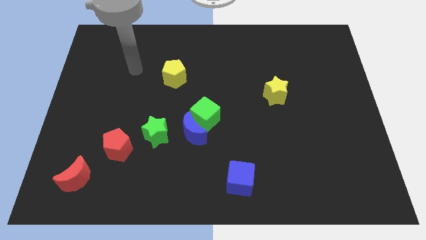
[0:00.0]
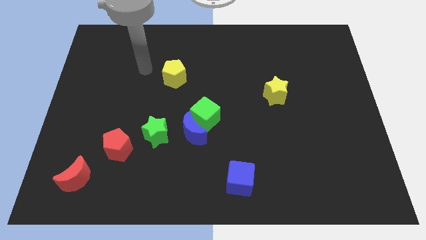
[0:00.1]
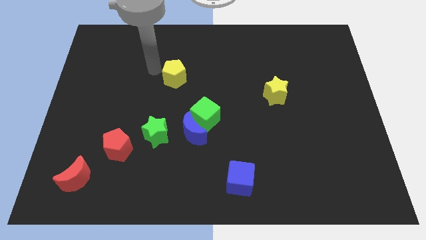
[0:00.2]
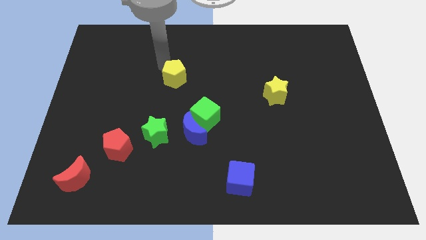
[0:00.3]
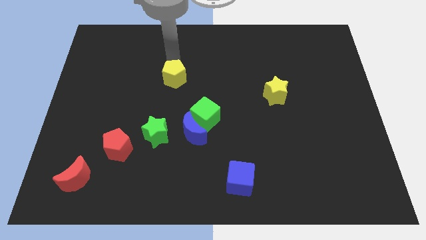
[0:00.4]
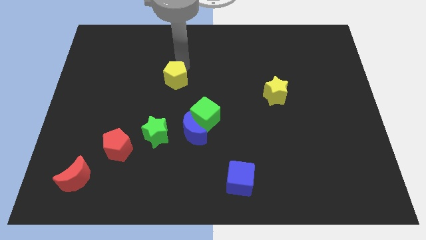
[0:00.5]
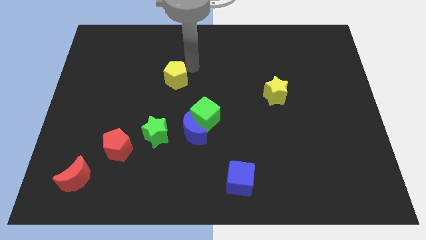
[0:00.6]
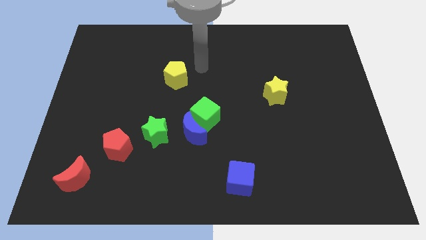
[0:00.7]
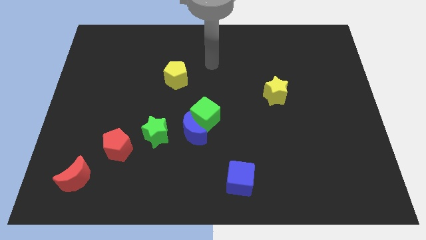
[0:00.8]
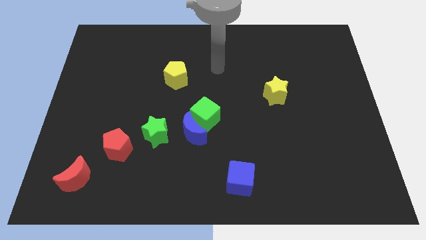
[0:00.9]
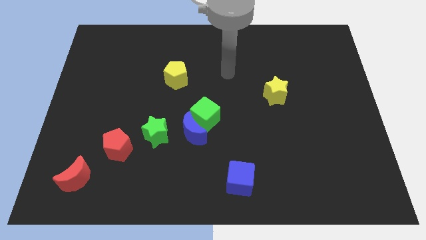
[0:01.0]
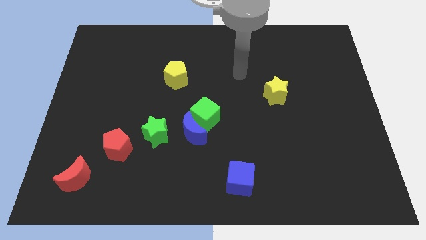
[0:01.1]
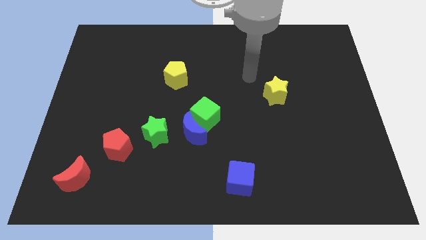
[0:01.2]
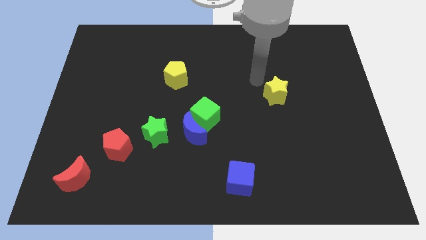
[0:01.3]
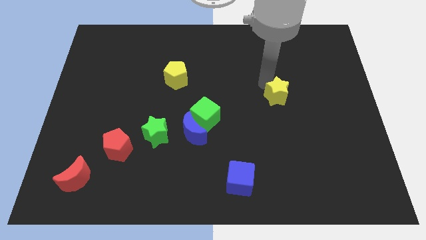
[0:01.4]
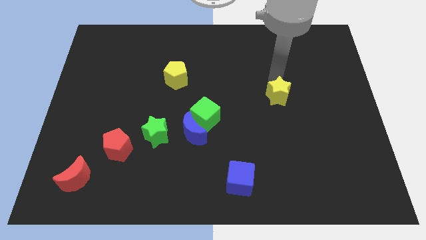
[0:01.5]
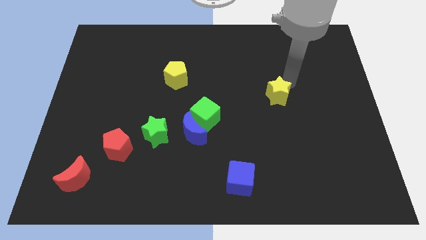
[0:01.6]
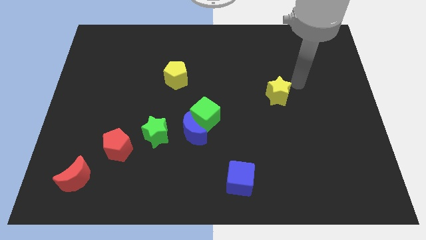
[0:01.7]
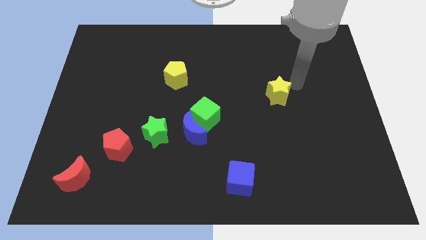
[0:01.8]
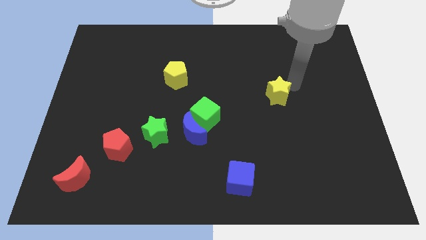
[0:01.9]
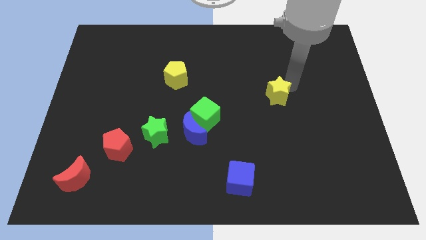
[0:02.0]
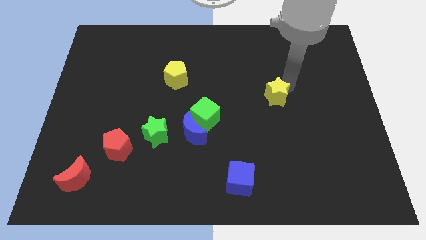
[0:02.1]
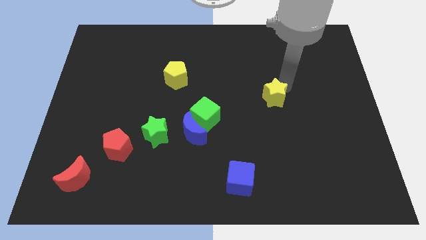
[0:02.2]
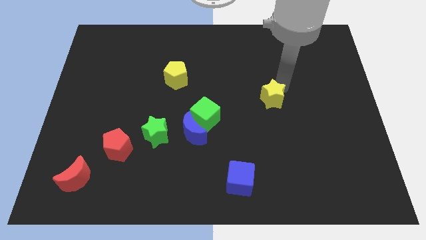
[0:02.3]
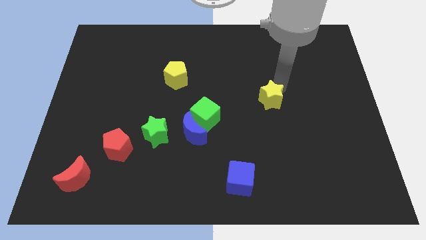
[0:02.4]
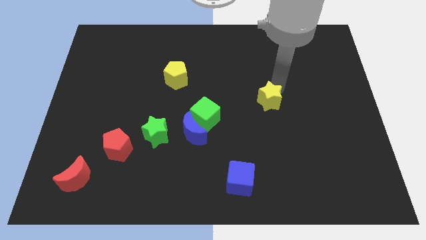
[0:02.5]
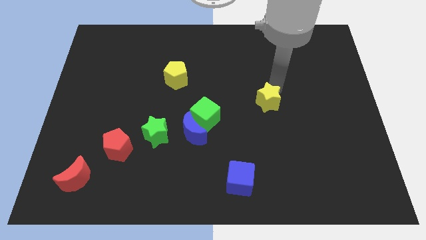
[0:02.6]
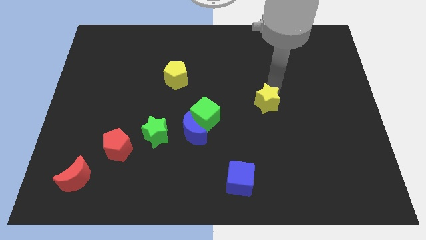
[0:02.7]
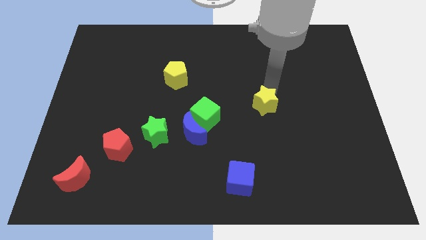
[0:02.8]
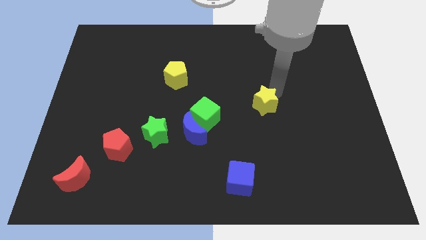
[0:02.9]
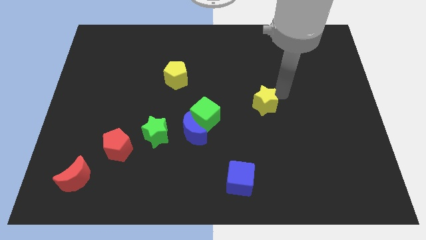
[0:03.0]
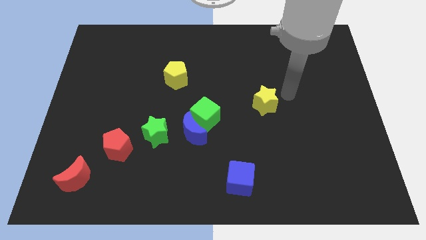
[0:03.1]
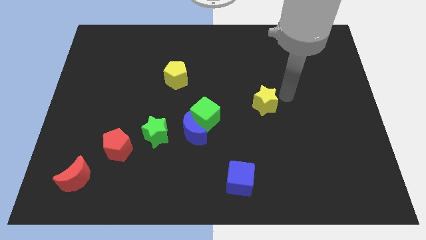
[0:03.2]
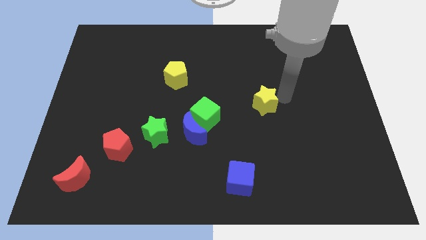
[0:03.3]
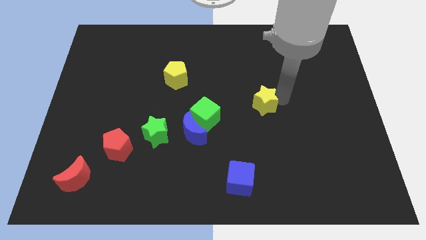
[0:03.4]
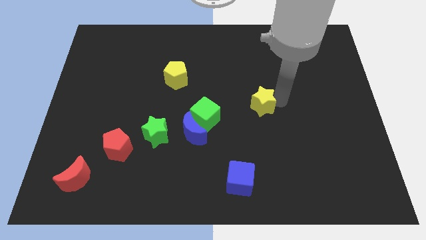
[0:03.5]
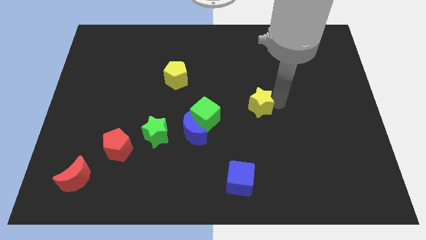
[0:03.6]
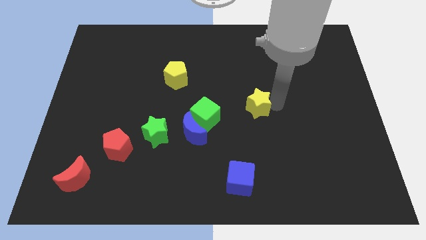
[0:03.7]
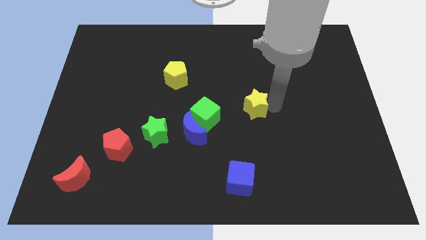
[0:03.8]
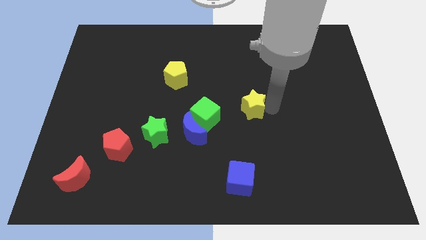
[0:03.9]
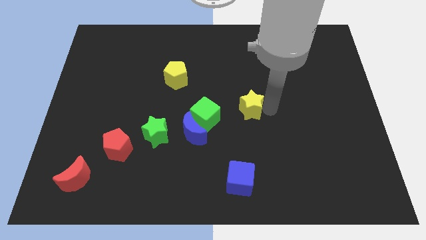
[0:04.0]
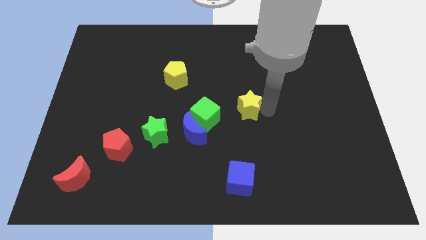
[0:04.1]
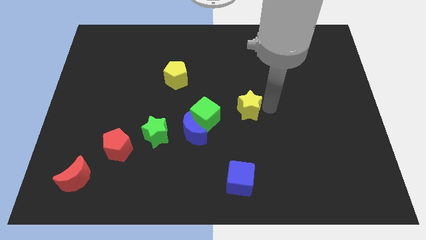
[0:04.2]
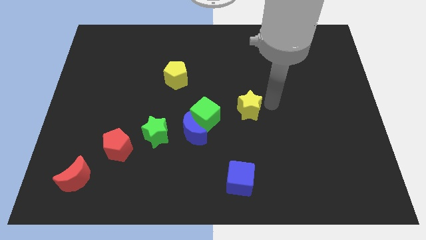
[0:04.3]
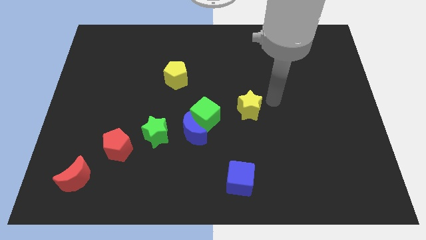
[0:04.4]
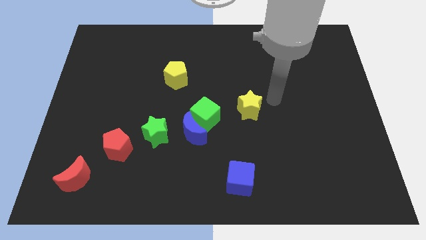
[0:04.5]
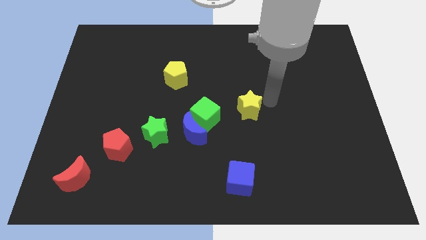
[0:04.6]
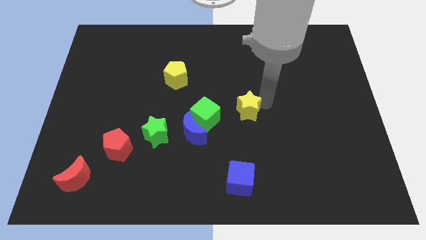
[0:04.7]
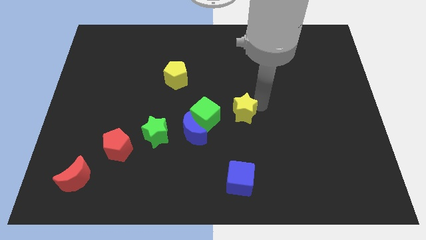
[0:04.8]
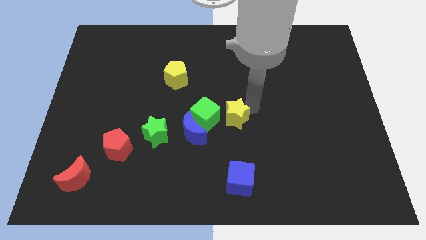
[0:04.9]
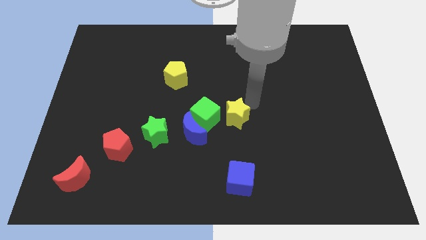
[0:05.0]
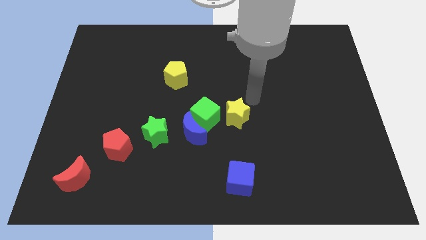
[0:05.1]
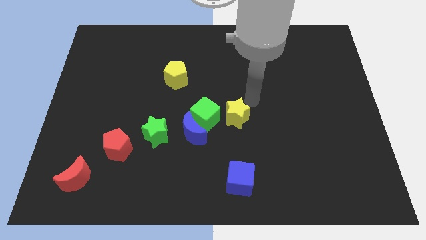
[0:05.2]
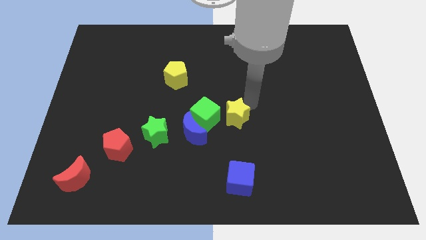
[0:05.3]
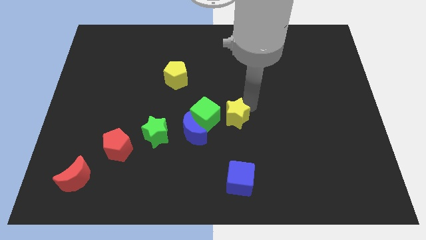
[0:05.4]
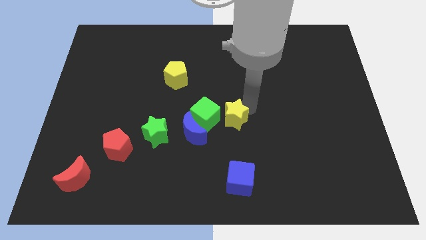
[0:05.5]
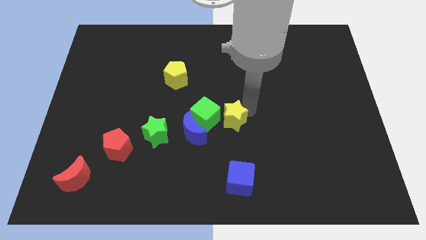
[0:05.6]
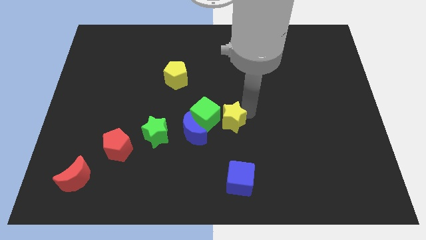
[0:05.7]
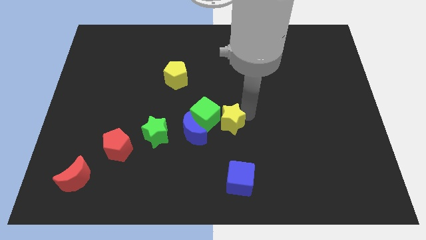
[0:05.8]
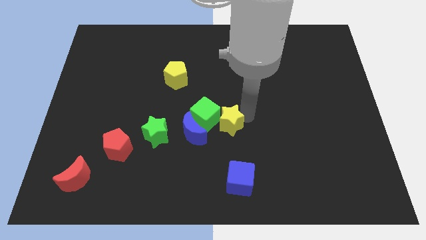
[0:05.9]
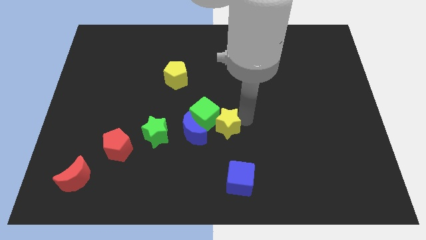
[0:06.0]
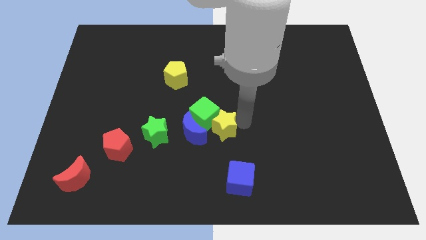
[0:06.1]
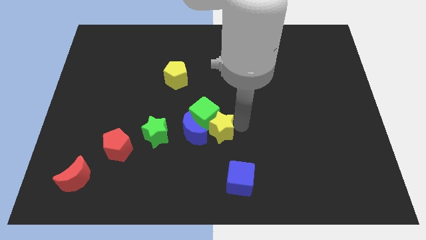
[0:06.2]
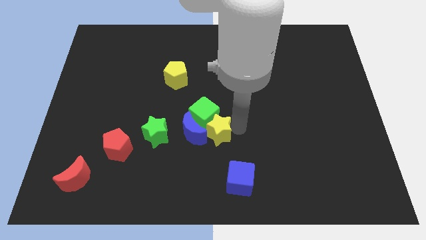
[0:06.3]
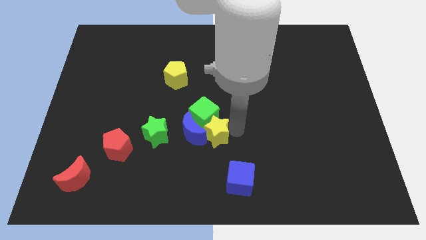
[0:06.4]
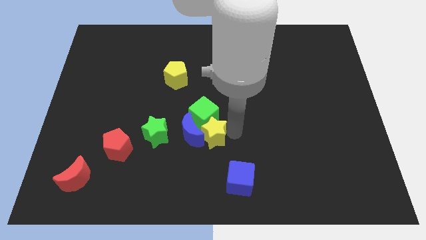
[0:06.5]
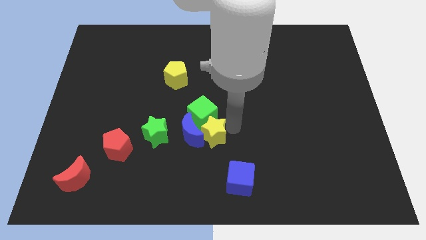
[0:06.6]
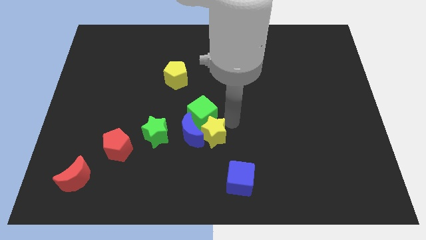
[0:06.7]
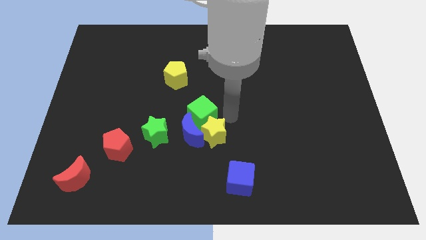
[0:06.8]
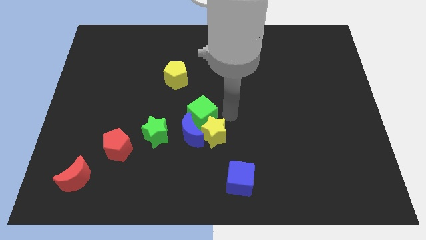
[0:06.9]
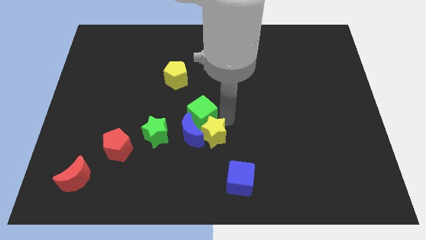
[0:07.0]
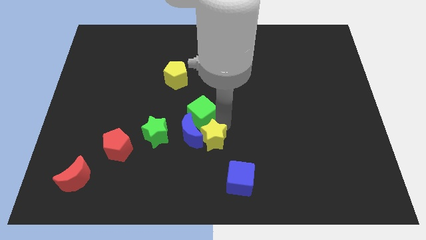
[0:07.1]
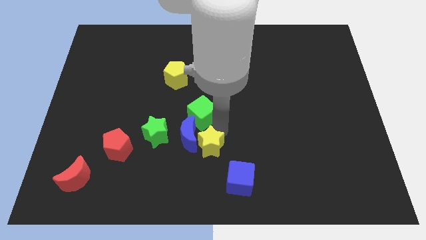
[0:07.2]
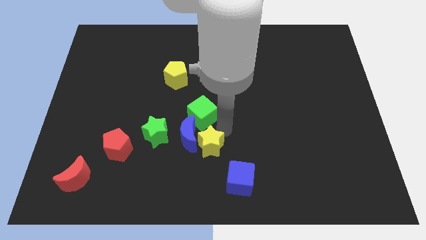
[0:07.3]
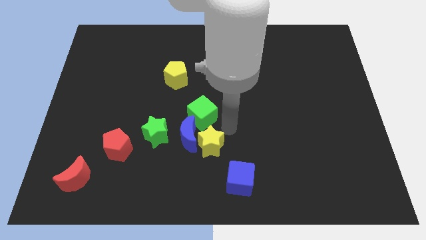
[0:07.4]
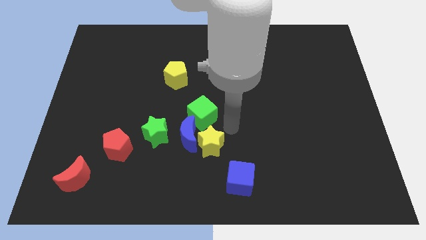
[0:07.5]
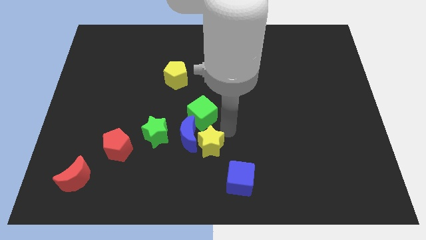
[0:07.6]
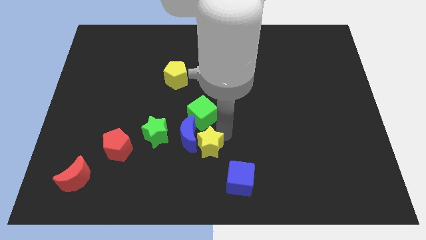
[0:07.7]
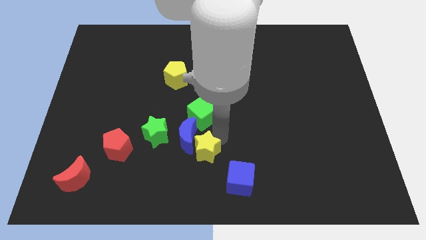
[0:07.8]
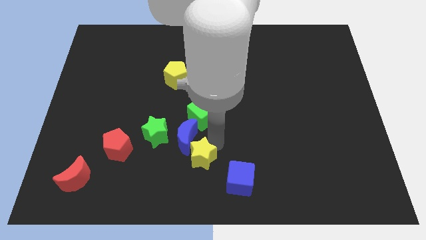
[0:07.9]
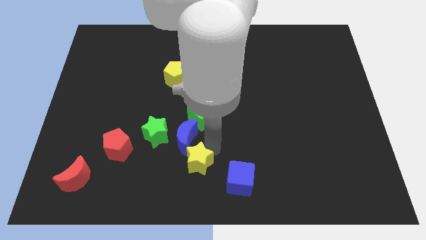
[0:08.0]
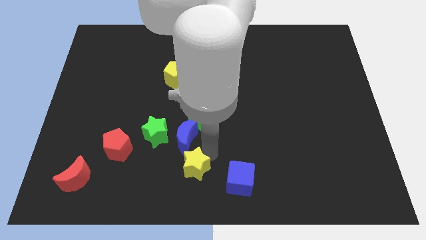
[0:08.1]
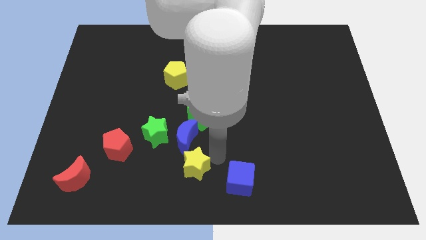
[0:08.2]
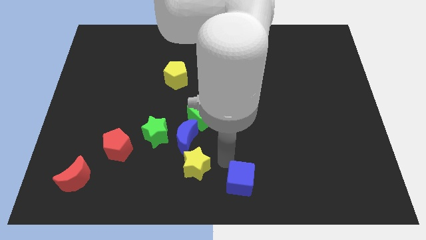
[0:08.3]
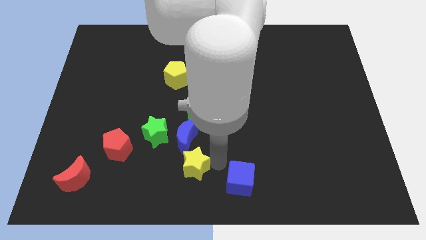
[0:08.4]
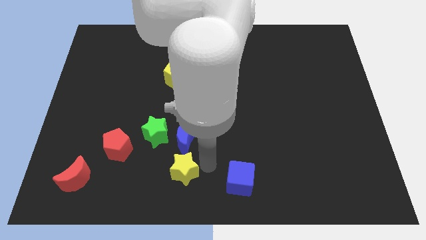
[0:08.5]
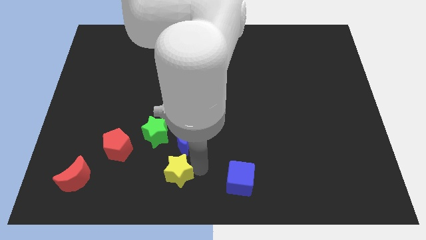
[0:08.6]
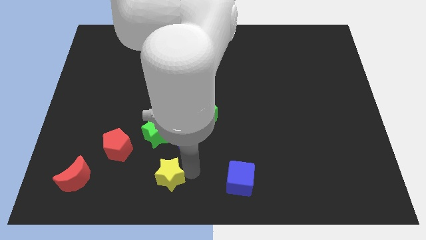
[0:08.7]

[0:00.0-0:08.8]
put the yellow star to the bottom side of the green star
